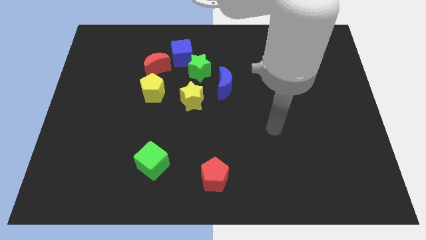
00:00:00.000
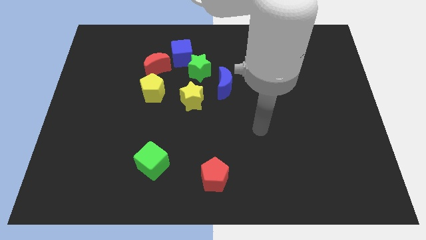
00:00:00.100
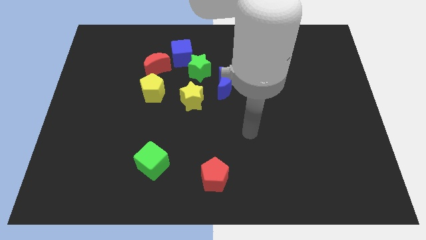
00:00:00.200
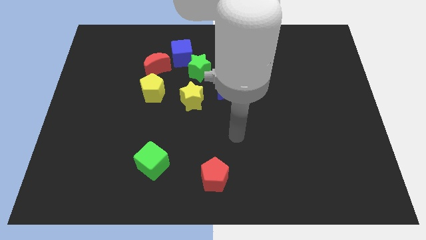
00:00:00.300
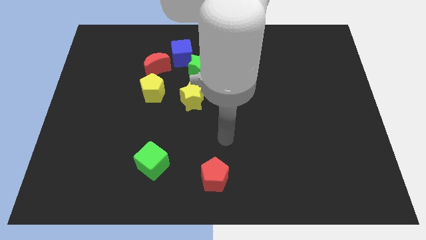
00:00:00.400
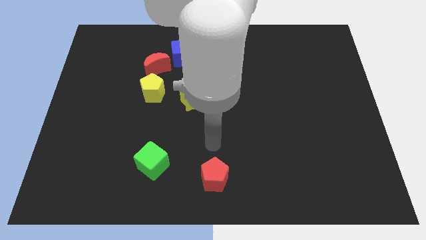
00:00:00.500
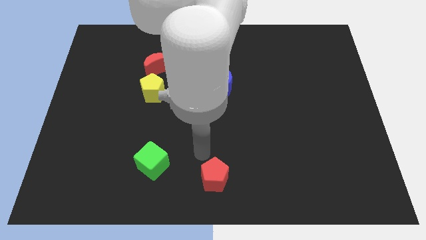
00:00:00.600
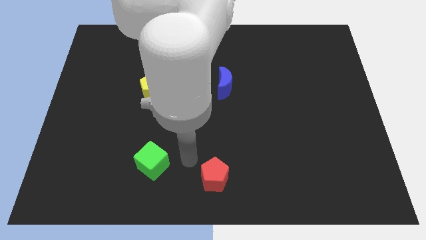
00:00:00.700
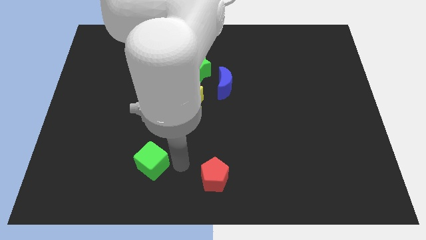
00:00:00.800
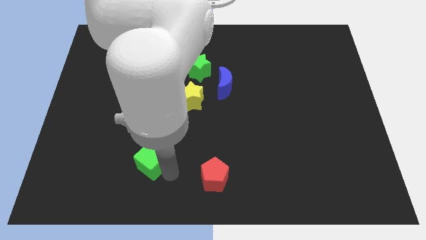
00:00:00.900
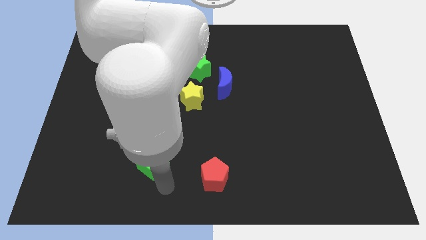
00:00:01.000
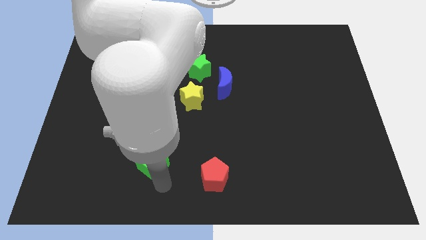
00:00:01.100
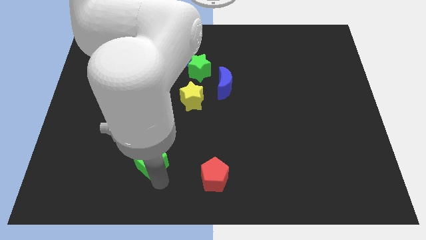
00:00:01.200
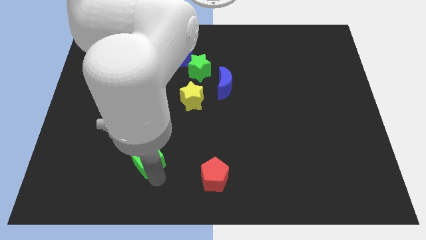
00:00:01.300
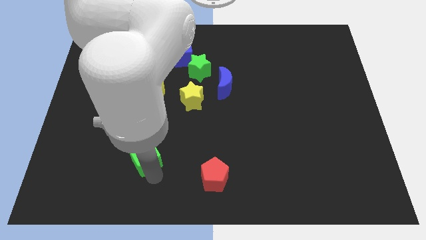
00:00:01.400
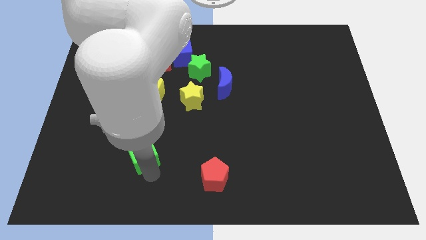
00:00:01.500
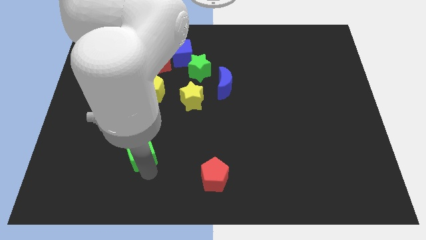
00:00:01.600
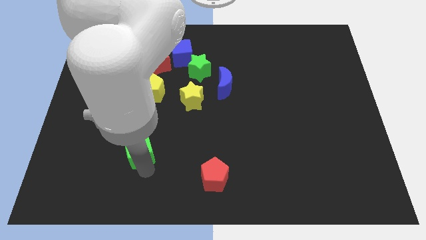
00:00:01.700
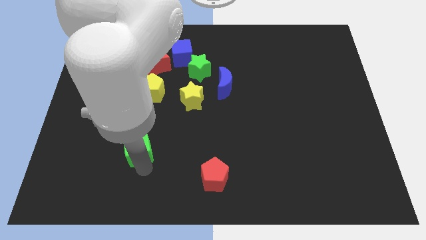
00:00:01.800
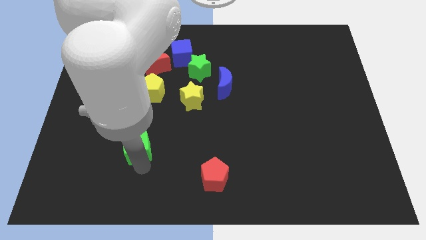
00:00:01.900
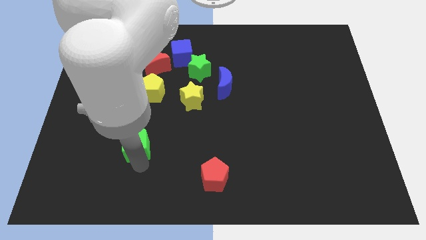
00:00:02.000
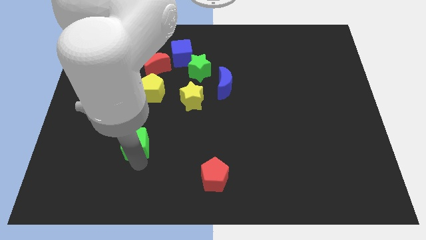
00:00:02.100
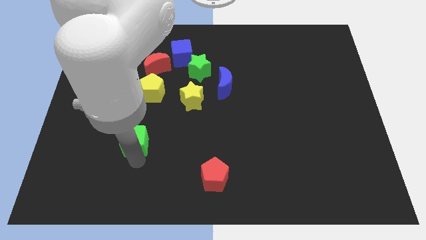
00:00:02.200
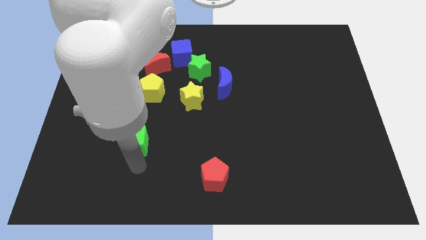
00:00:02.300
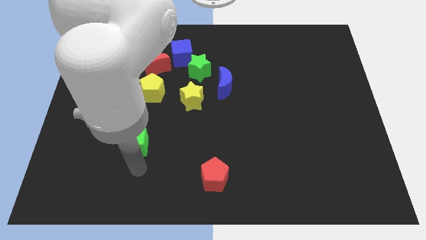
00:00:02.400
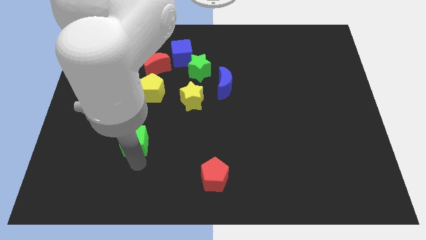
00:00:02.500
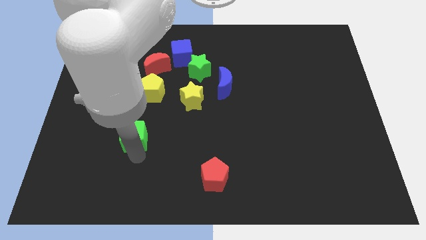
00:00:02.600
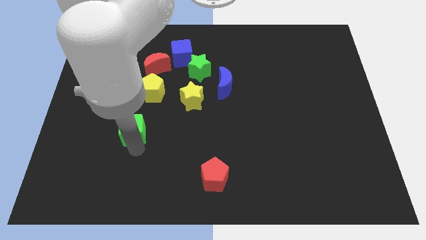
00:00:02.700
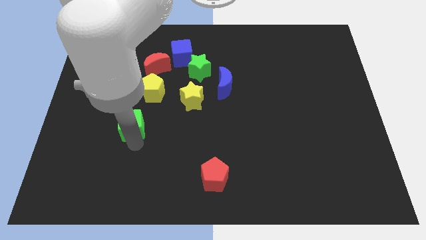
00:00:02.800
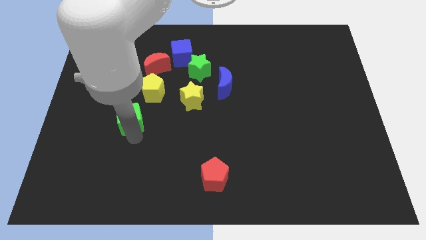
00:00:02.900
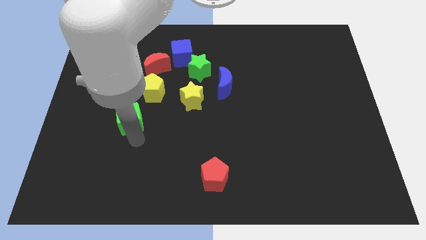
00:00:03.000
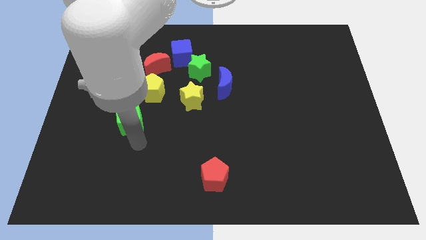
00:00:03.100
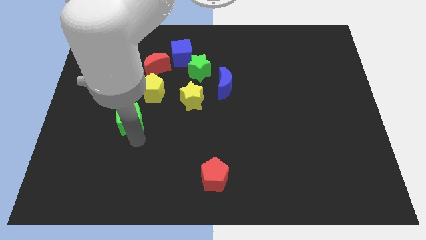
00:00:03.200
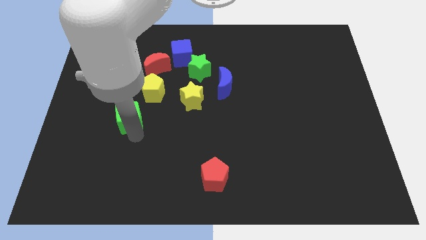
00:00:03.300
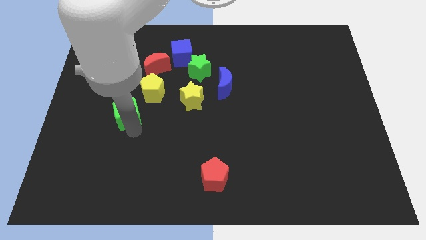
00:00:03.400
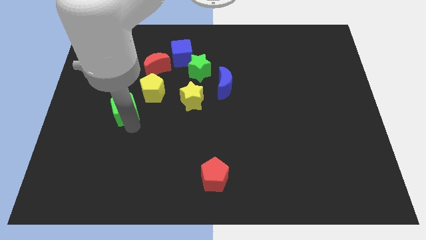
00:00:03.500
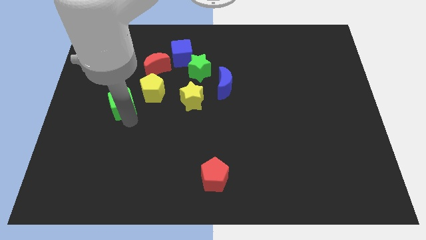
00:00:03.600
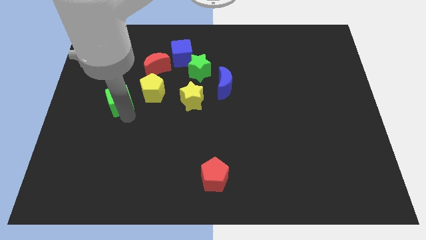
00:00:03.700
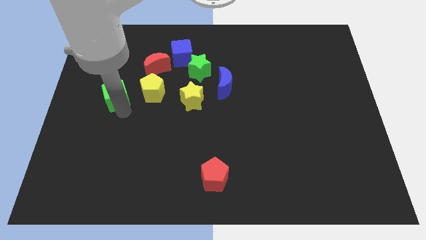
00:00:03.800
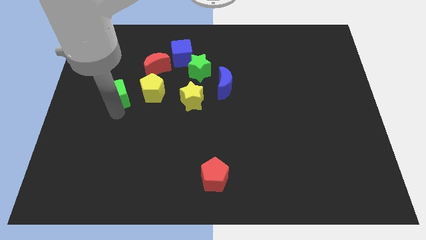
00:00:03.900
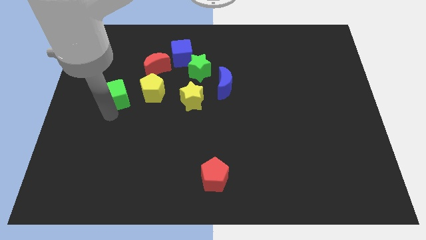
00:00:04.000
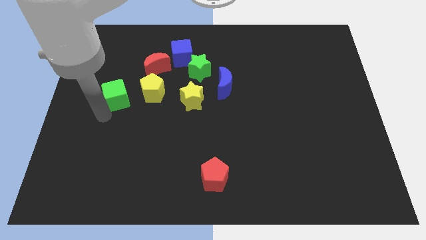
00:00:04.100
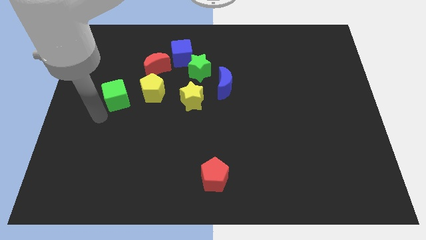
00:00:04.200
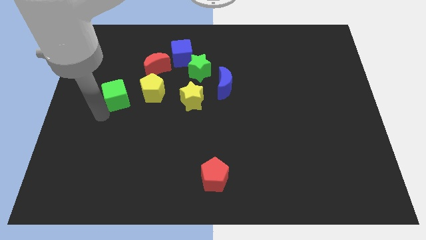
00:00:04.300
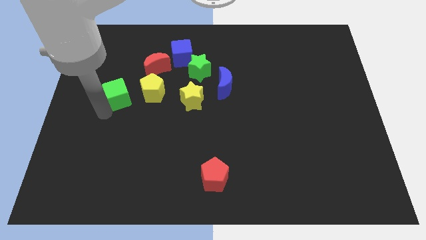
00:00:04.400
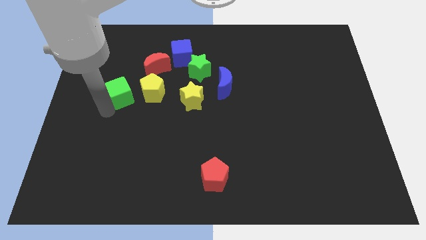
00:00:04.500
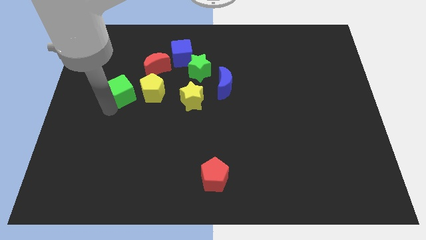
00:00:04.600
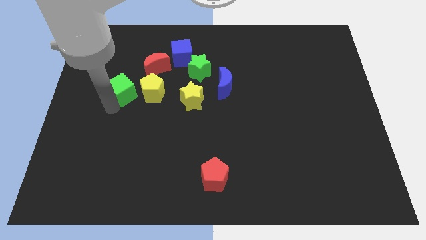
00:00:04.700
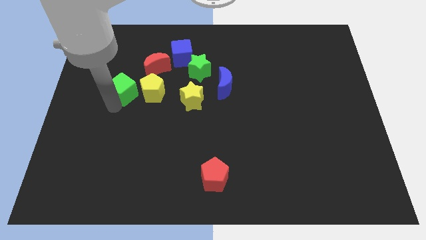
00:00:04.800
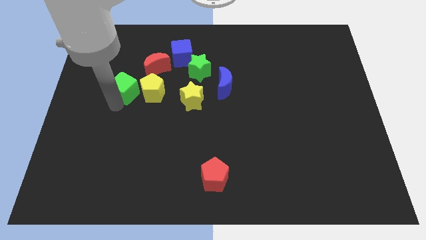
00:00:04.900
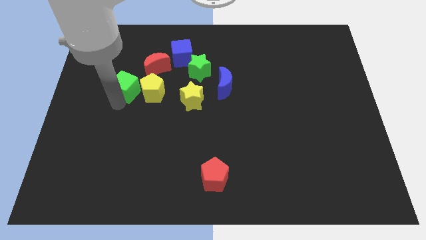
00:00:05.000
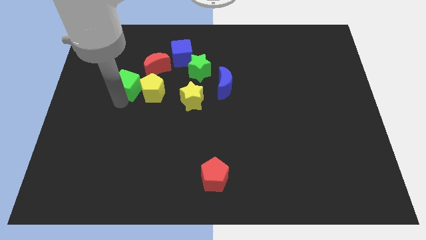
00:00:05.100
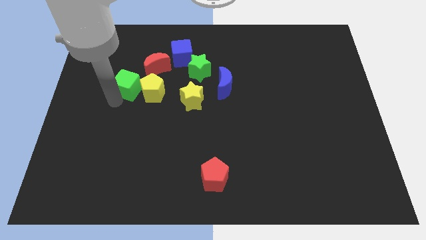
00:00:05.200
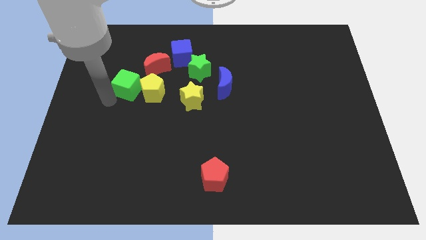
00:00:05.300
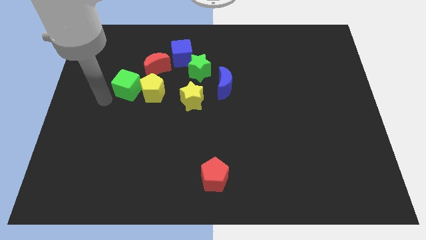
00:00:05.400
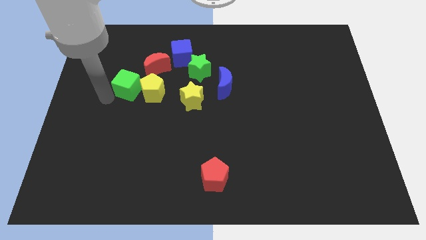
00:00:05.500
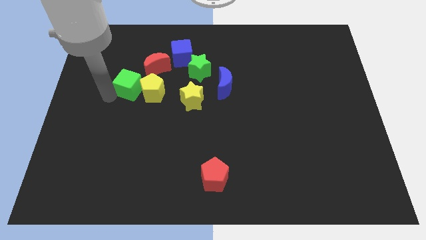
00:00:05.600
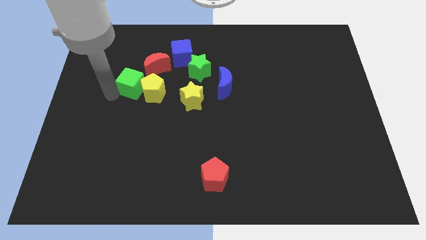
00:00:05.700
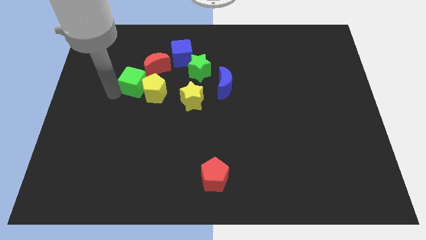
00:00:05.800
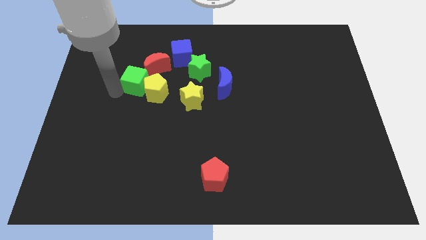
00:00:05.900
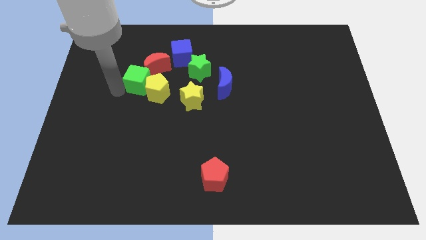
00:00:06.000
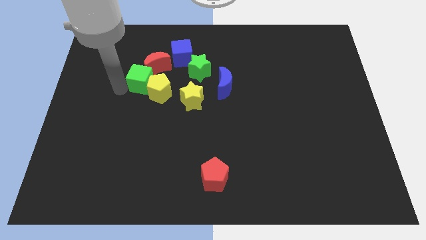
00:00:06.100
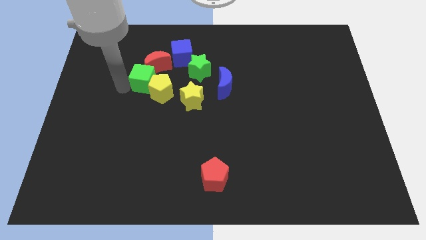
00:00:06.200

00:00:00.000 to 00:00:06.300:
slide the green cube diagonally down and to the left of the blue cube

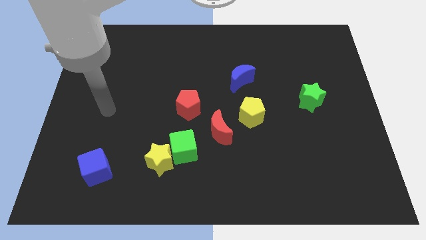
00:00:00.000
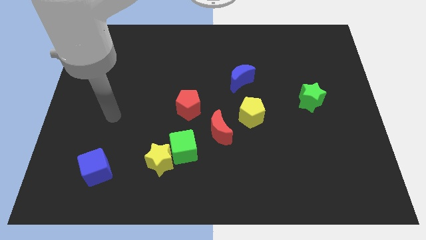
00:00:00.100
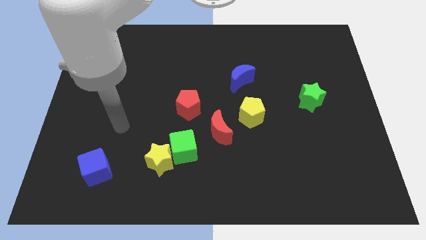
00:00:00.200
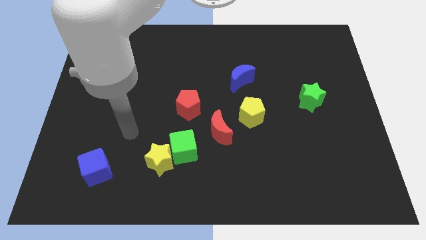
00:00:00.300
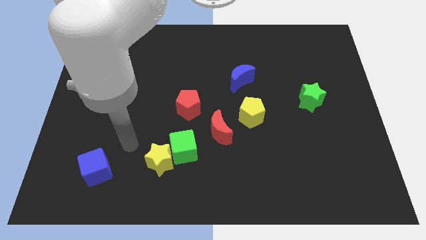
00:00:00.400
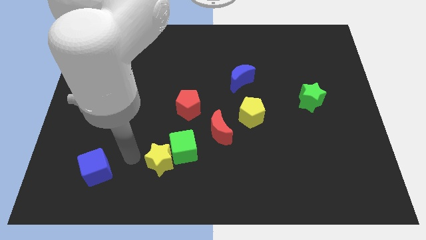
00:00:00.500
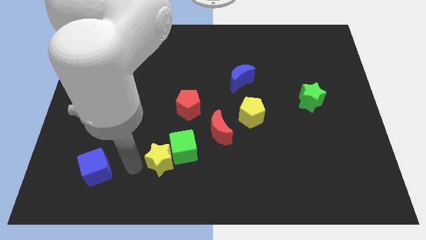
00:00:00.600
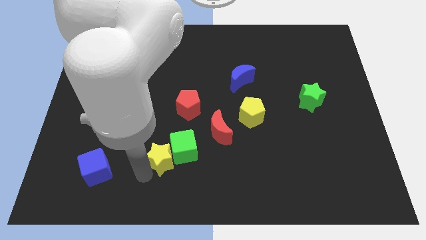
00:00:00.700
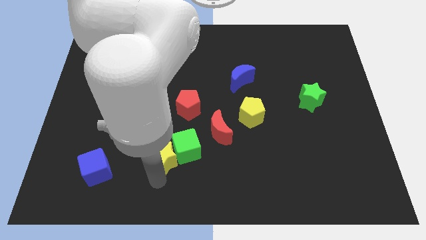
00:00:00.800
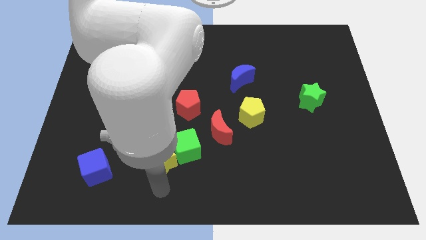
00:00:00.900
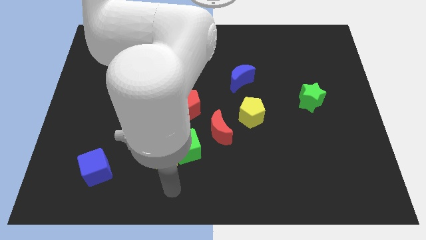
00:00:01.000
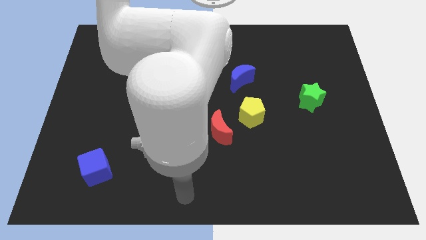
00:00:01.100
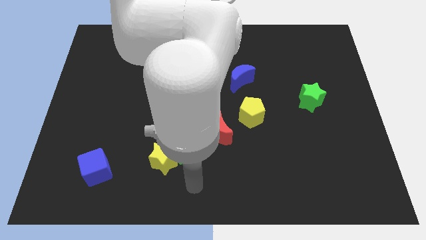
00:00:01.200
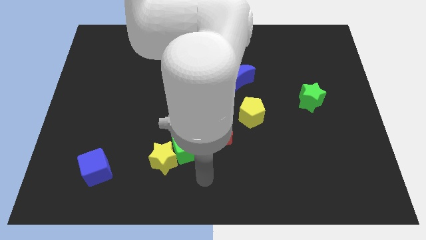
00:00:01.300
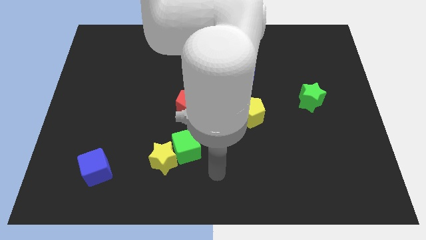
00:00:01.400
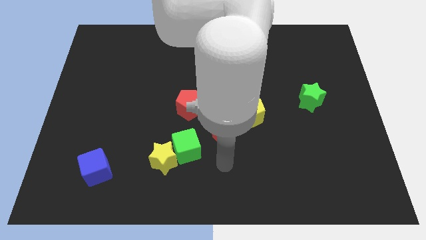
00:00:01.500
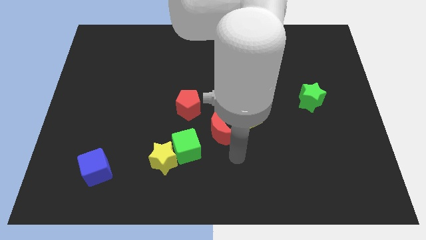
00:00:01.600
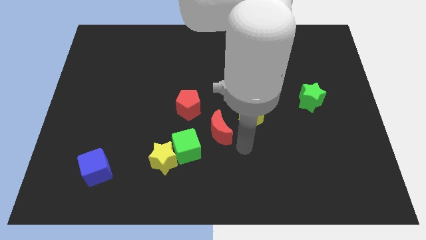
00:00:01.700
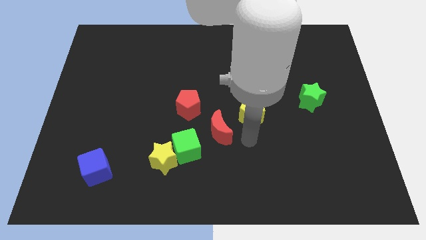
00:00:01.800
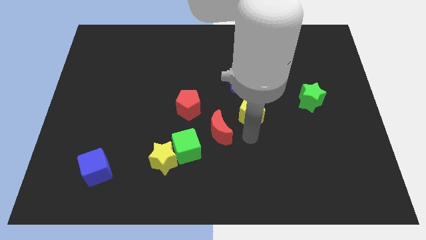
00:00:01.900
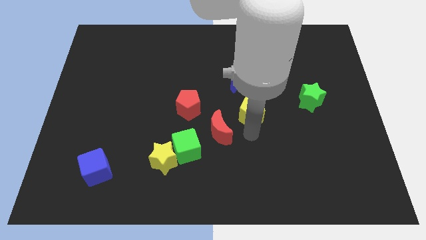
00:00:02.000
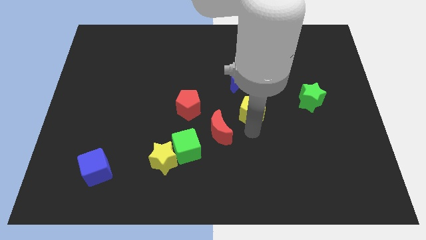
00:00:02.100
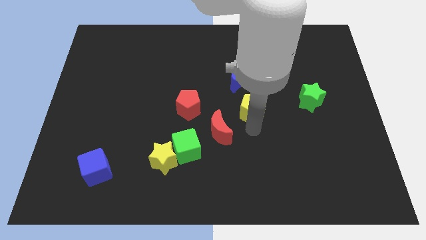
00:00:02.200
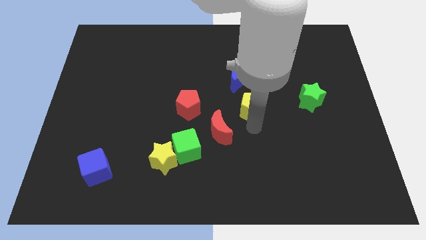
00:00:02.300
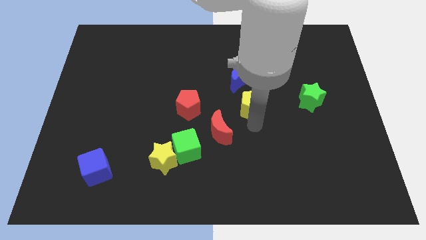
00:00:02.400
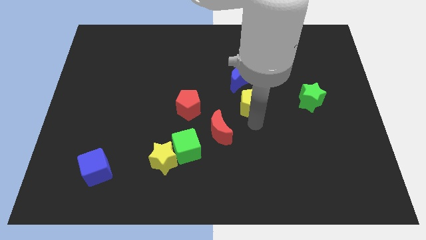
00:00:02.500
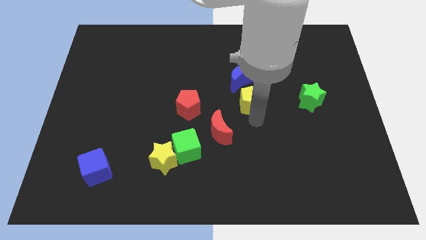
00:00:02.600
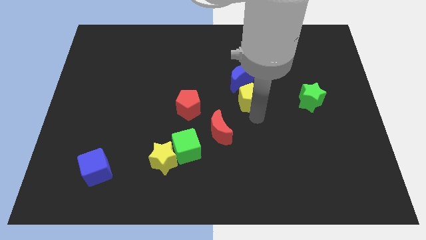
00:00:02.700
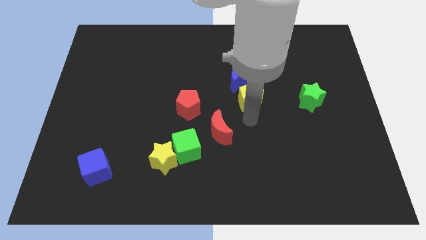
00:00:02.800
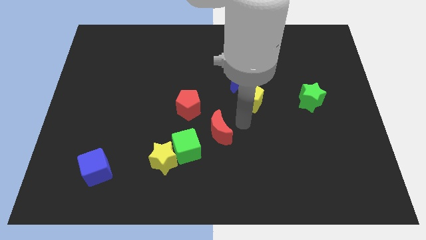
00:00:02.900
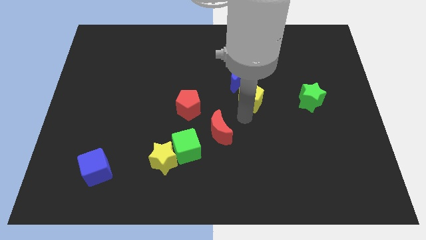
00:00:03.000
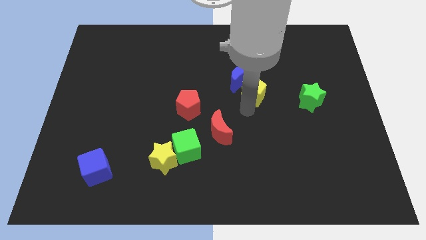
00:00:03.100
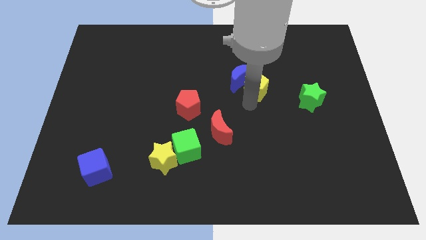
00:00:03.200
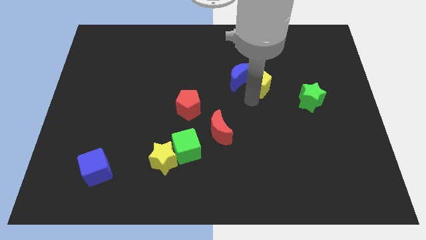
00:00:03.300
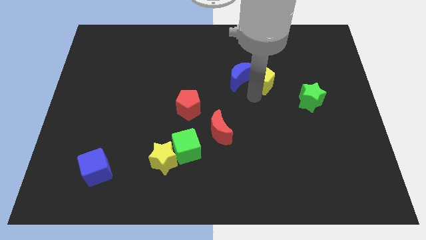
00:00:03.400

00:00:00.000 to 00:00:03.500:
put the yellow pentagon to the top right of the blue moon
